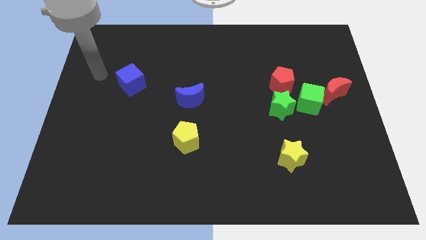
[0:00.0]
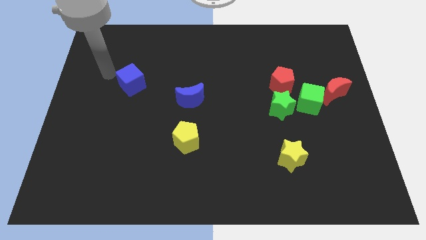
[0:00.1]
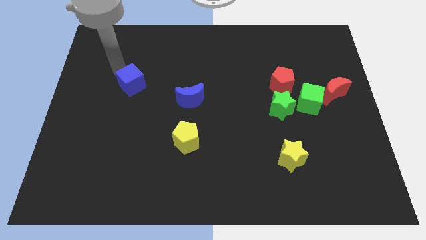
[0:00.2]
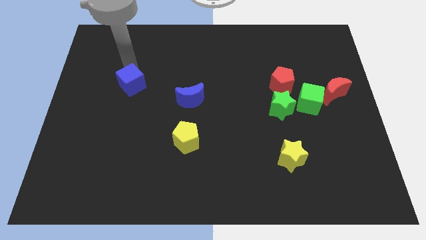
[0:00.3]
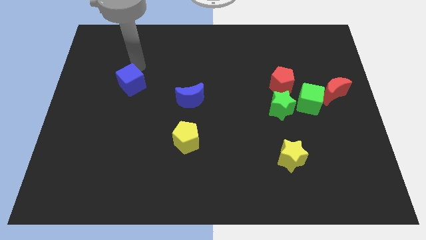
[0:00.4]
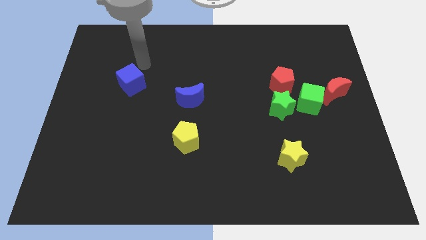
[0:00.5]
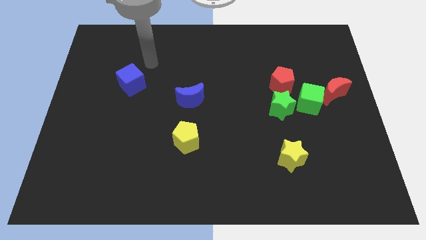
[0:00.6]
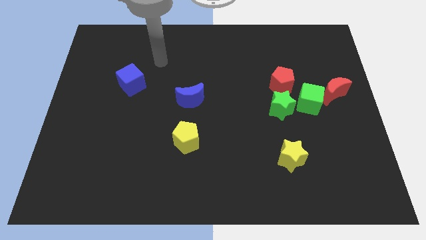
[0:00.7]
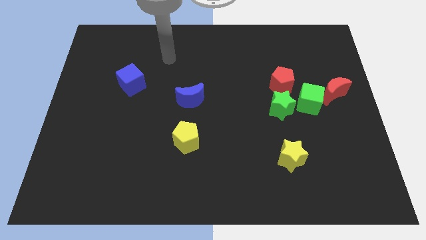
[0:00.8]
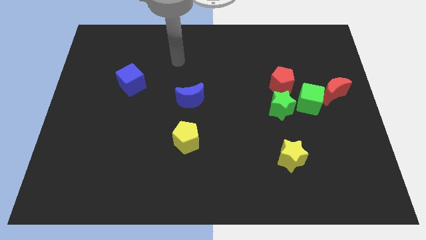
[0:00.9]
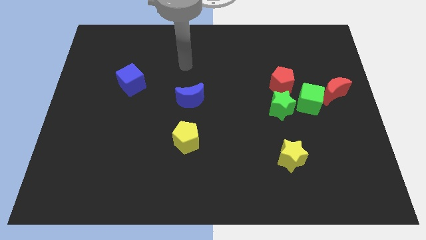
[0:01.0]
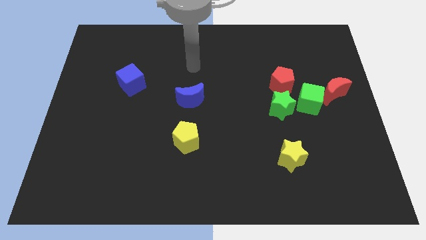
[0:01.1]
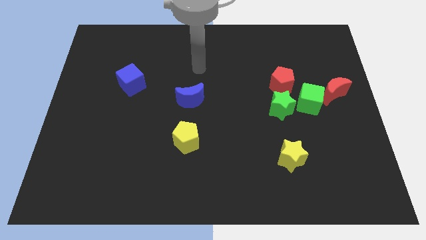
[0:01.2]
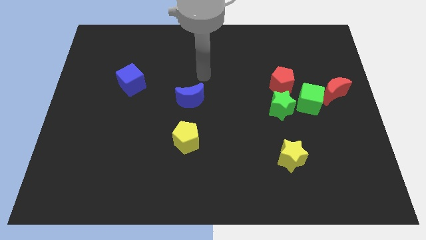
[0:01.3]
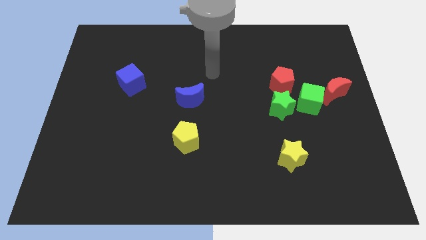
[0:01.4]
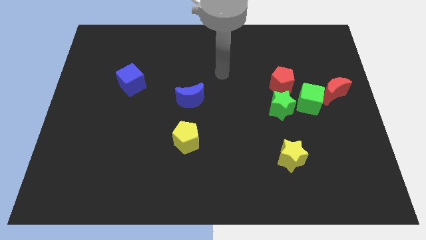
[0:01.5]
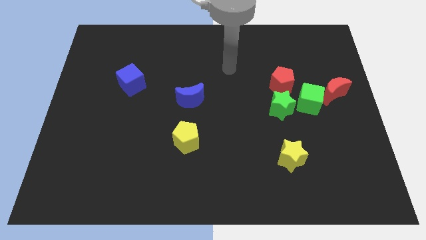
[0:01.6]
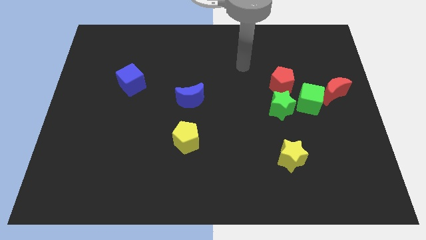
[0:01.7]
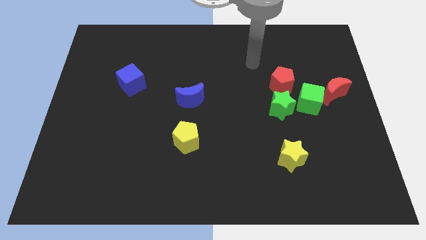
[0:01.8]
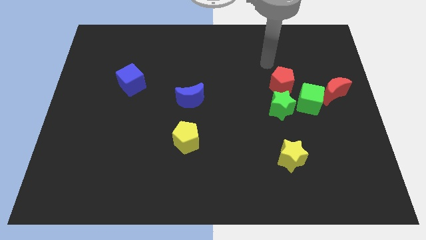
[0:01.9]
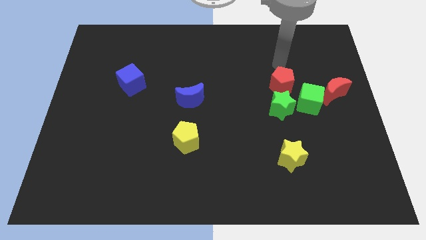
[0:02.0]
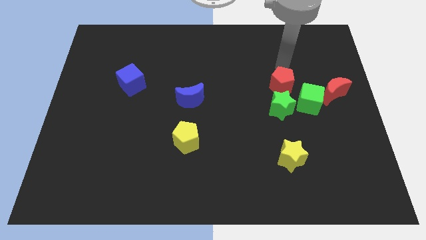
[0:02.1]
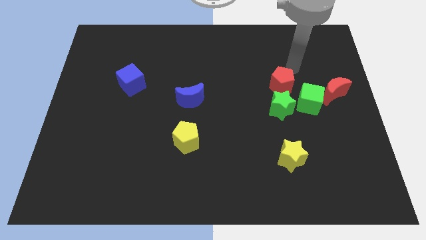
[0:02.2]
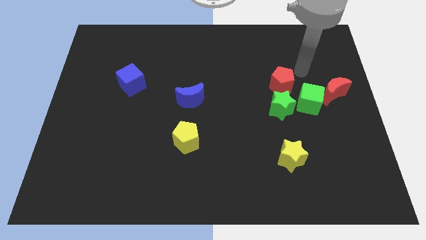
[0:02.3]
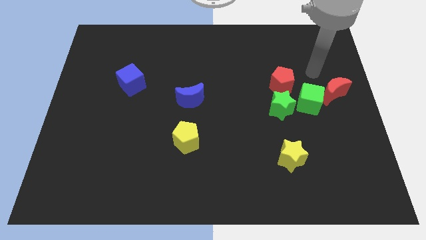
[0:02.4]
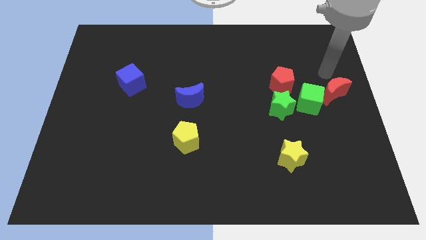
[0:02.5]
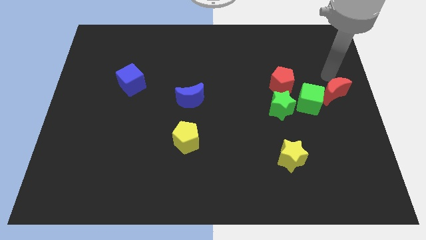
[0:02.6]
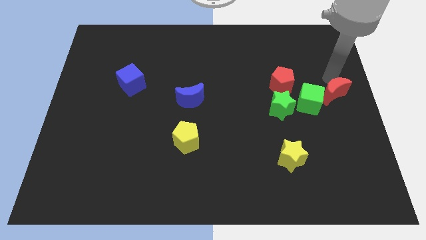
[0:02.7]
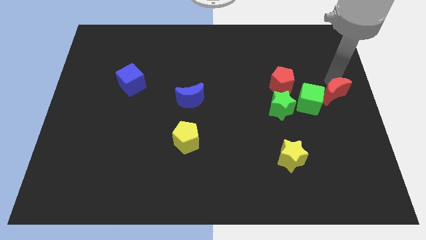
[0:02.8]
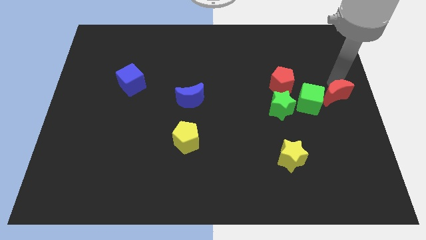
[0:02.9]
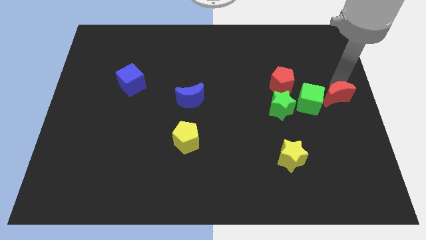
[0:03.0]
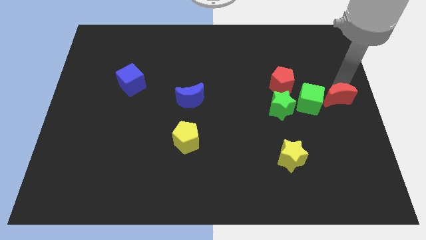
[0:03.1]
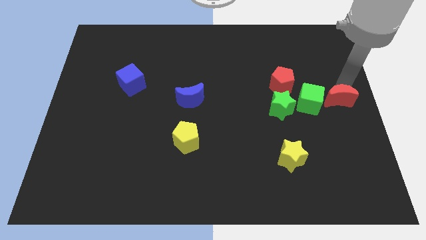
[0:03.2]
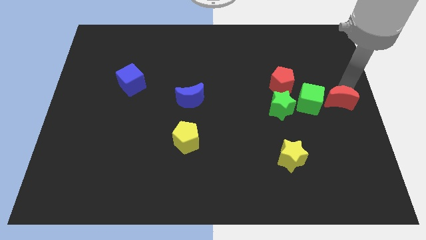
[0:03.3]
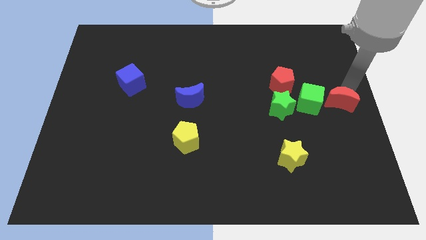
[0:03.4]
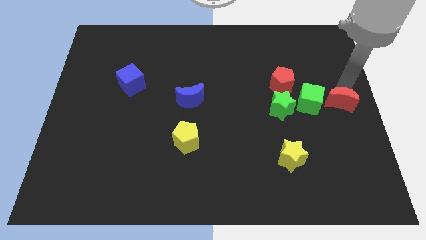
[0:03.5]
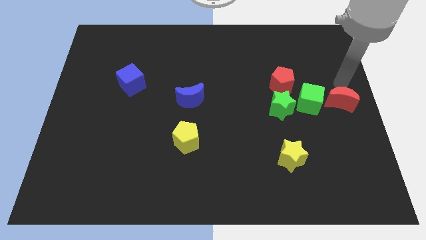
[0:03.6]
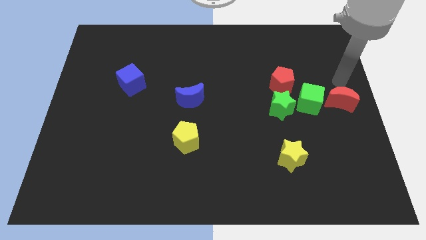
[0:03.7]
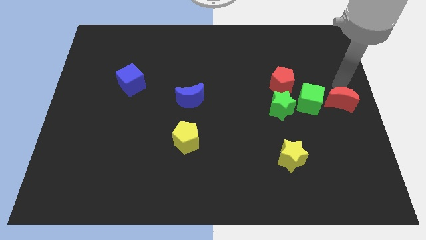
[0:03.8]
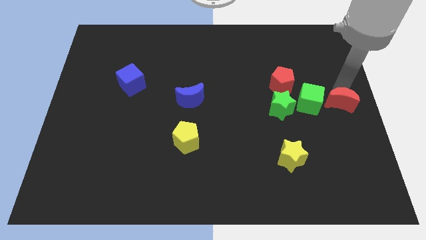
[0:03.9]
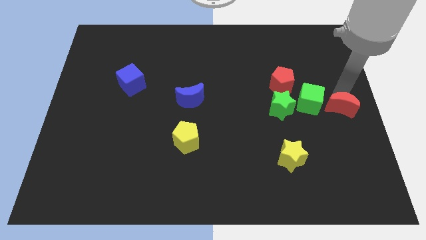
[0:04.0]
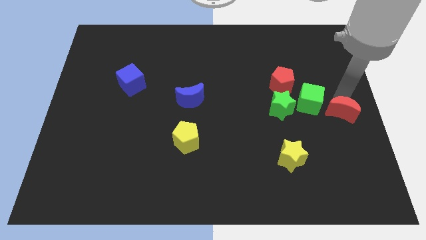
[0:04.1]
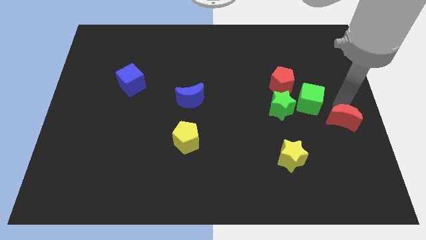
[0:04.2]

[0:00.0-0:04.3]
push the red moon down a little bit

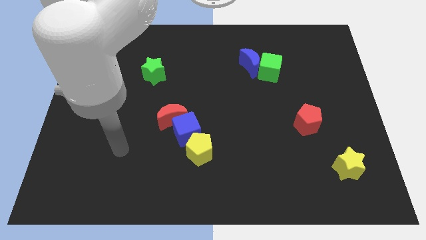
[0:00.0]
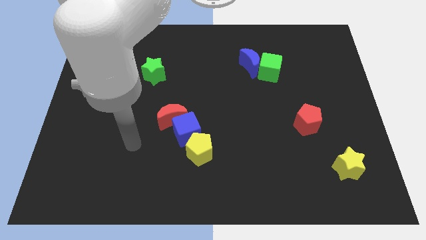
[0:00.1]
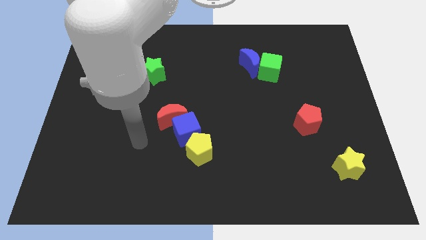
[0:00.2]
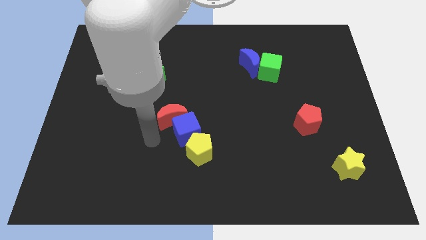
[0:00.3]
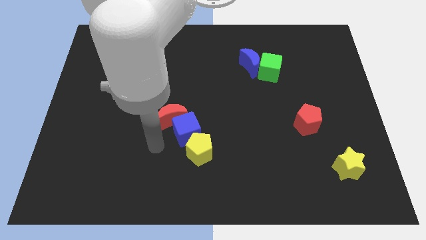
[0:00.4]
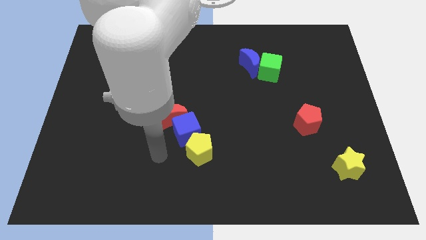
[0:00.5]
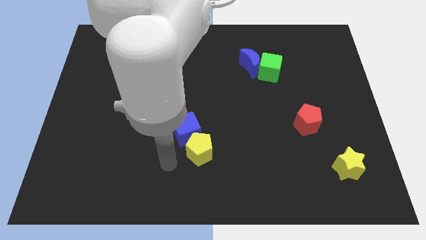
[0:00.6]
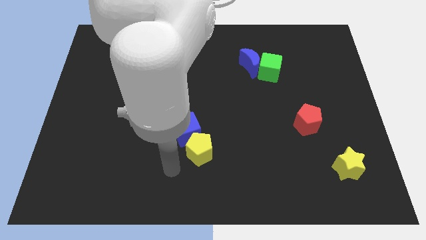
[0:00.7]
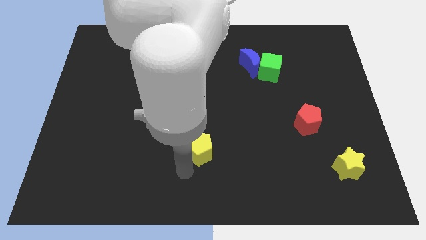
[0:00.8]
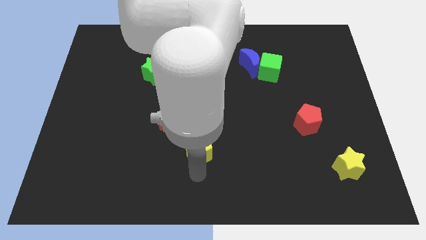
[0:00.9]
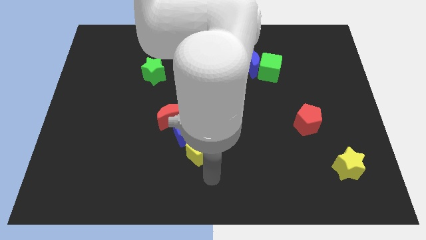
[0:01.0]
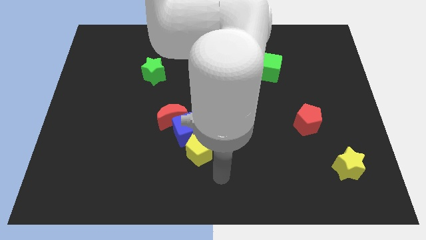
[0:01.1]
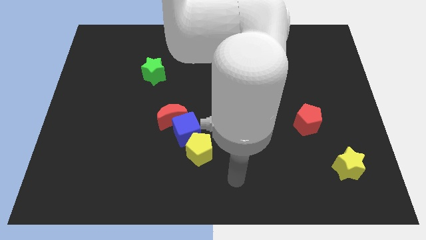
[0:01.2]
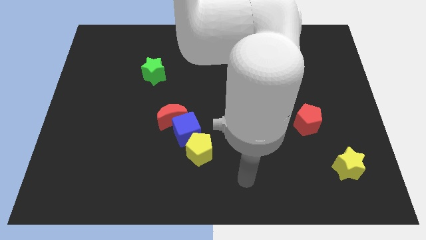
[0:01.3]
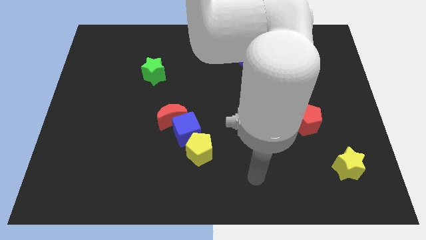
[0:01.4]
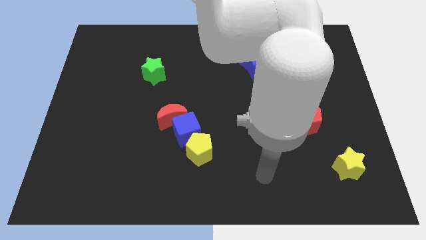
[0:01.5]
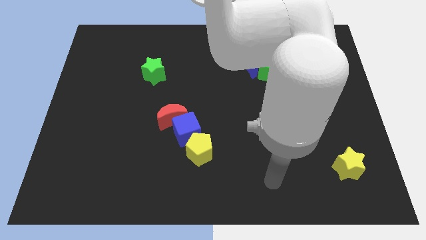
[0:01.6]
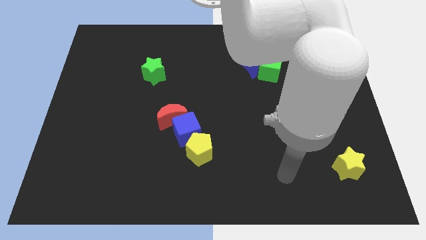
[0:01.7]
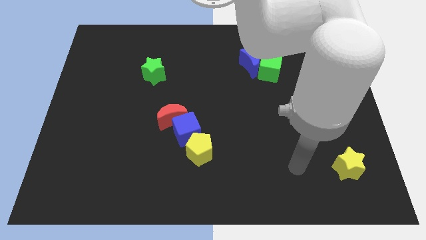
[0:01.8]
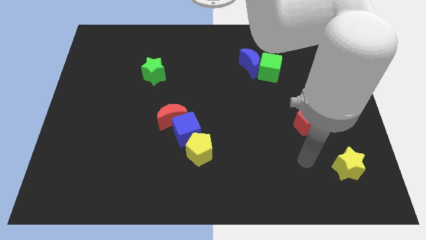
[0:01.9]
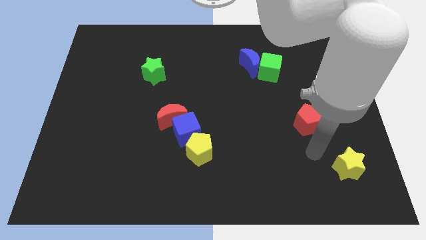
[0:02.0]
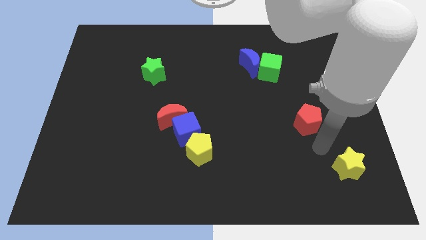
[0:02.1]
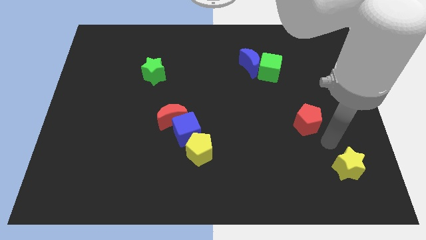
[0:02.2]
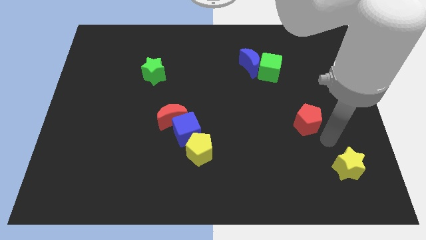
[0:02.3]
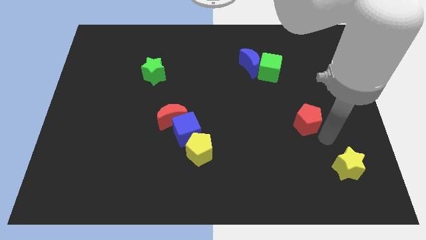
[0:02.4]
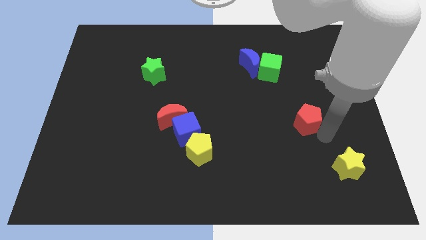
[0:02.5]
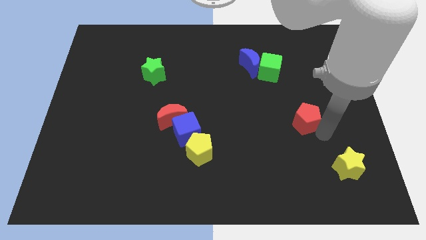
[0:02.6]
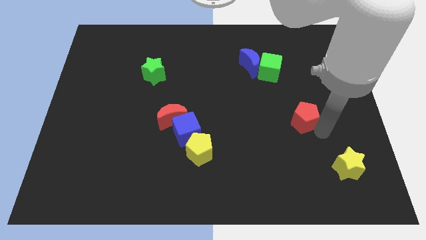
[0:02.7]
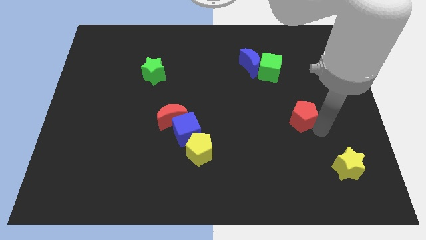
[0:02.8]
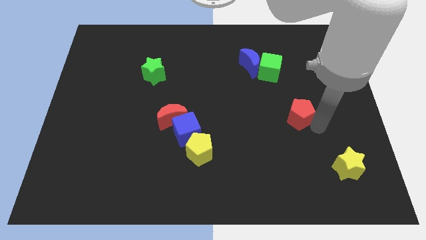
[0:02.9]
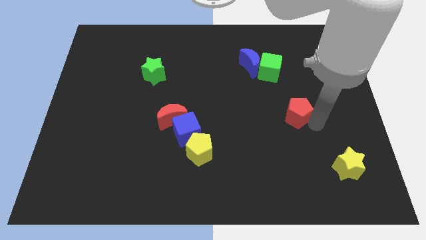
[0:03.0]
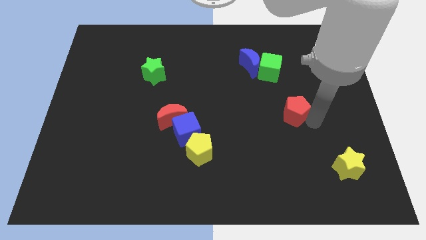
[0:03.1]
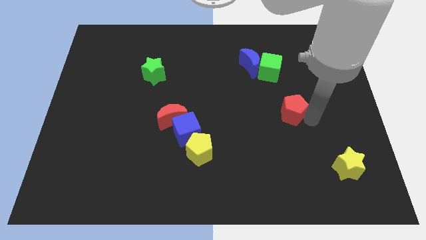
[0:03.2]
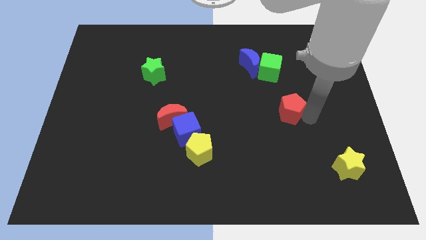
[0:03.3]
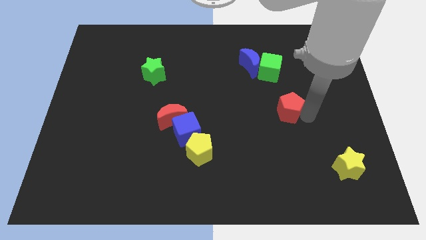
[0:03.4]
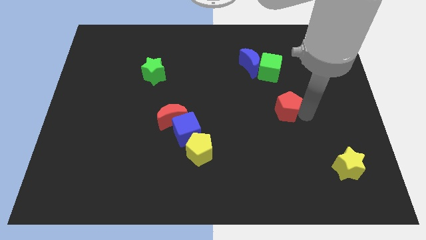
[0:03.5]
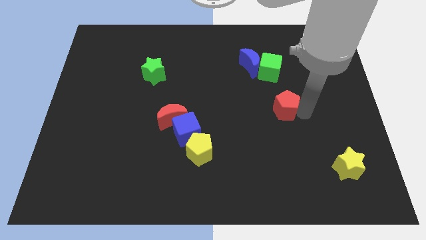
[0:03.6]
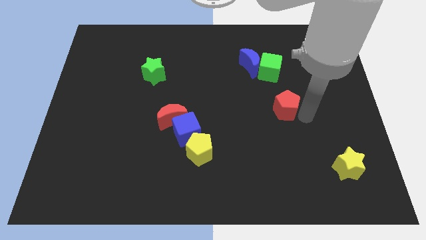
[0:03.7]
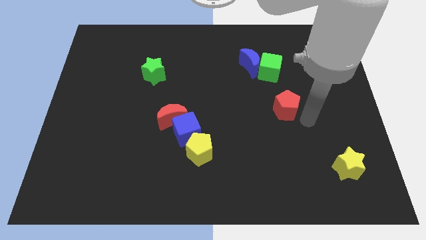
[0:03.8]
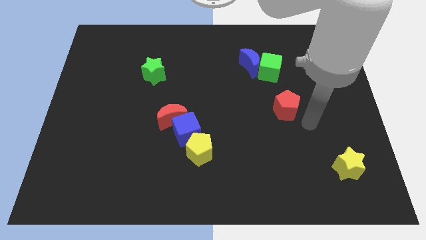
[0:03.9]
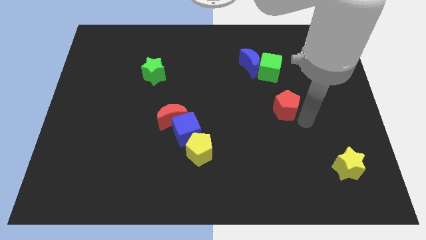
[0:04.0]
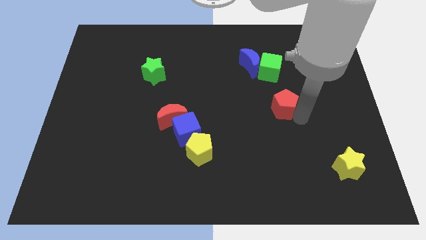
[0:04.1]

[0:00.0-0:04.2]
slide the red pentagon a bit upwards and to the left diagonally
